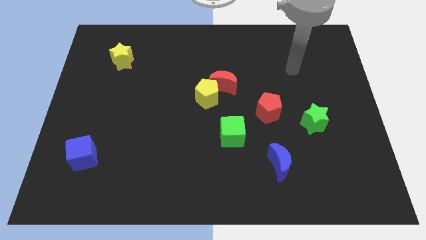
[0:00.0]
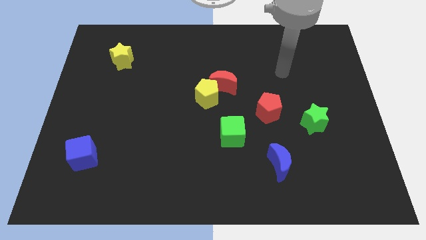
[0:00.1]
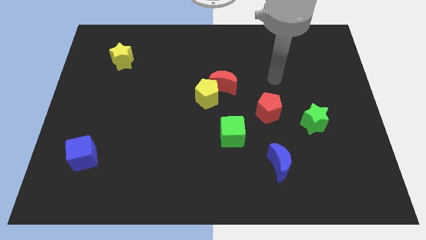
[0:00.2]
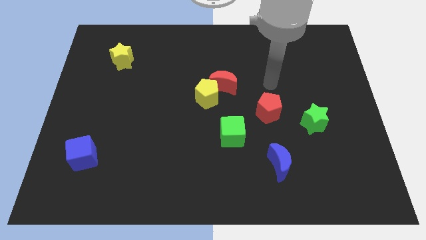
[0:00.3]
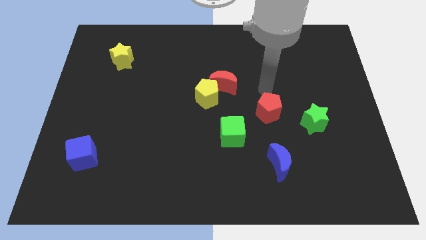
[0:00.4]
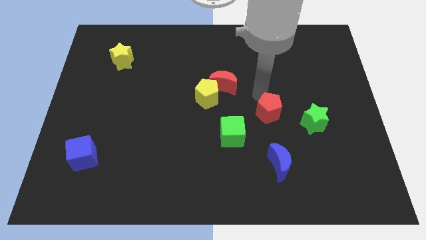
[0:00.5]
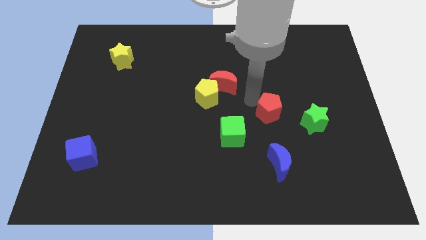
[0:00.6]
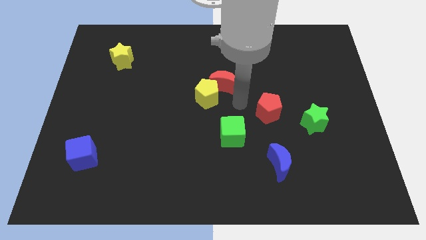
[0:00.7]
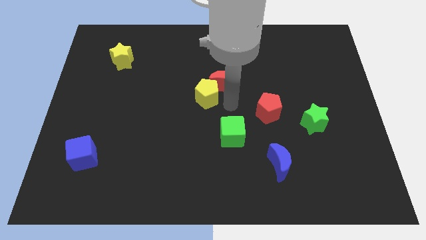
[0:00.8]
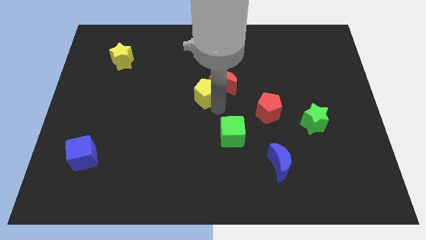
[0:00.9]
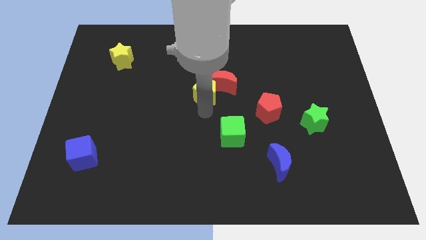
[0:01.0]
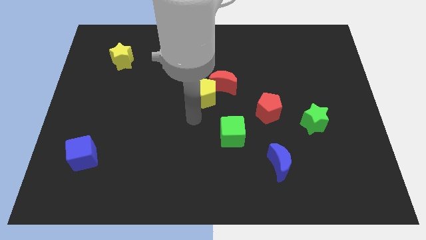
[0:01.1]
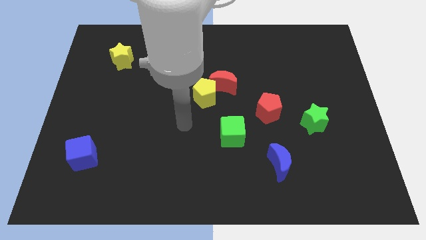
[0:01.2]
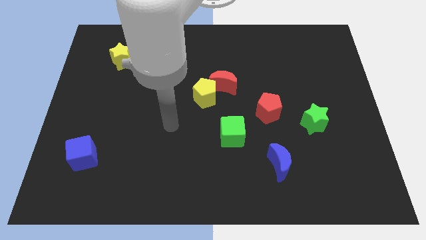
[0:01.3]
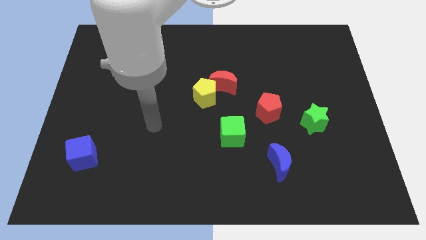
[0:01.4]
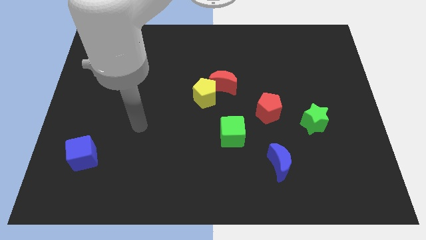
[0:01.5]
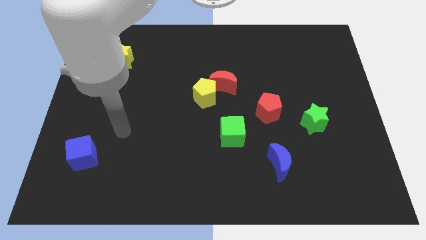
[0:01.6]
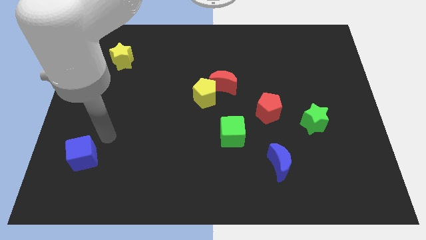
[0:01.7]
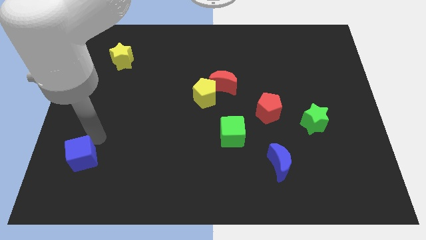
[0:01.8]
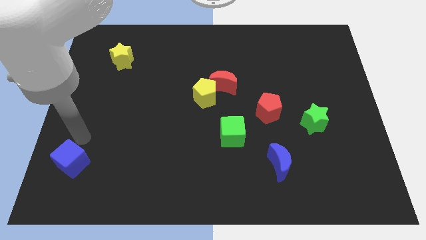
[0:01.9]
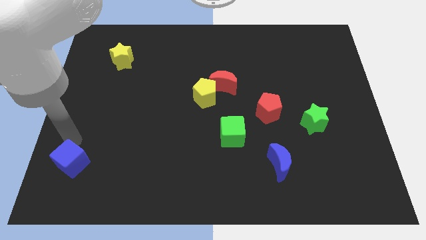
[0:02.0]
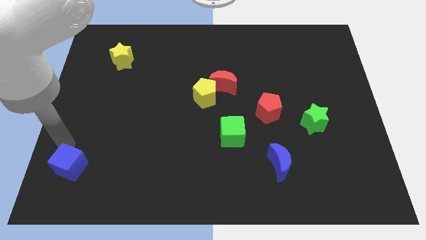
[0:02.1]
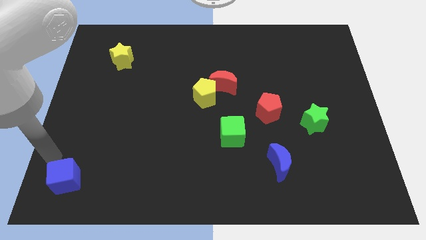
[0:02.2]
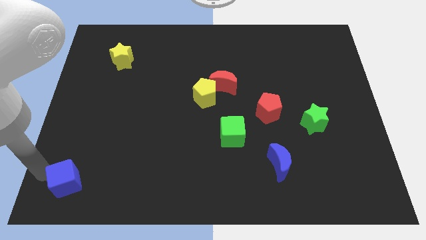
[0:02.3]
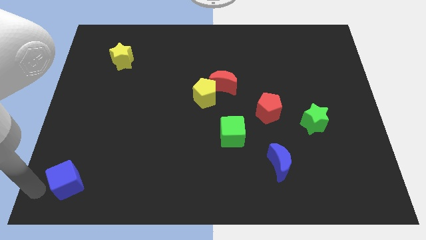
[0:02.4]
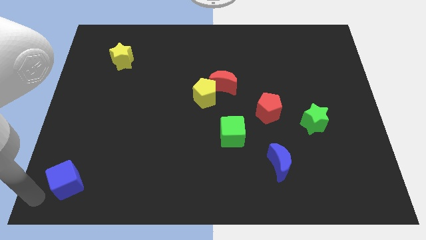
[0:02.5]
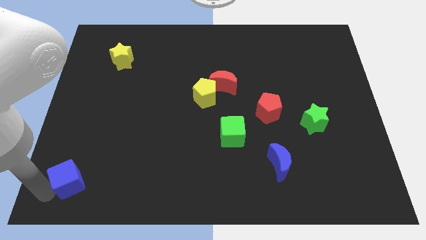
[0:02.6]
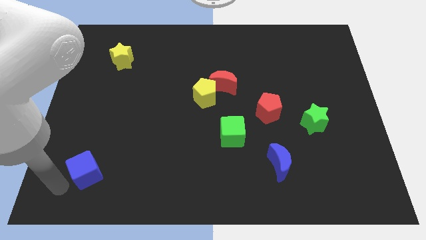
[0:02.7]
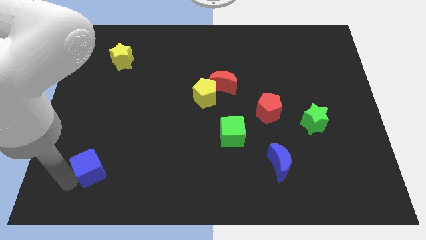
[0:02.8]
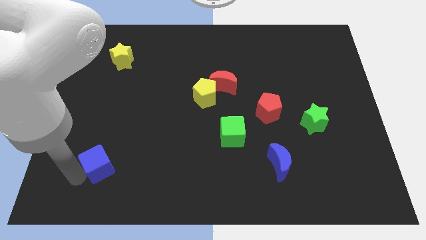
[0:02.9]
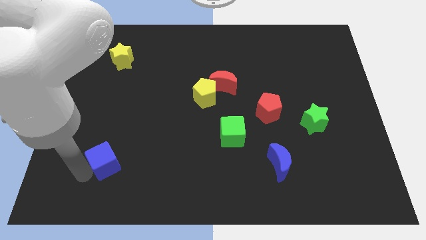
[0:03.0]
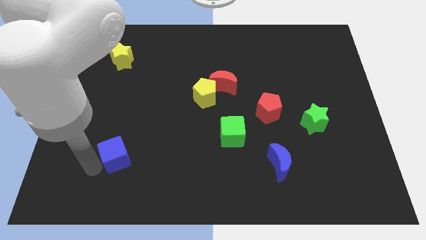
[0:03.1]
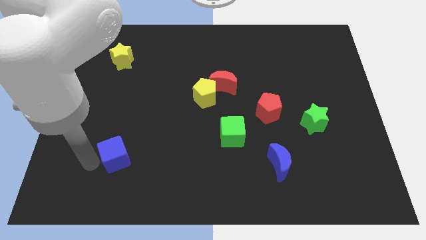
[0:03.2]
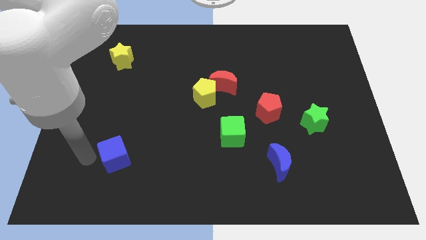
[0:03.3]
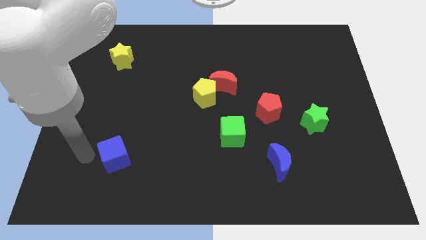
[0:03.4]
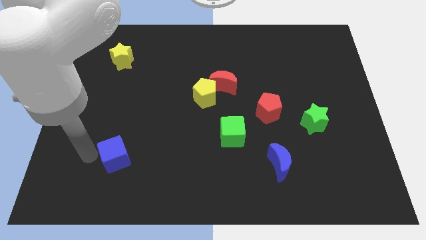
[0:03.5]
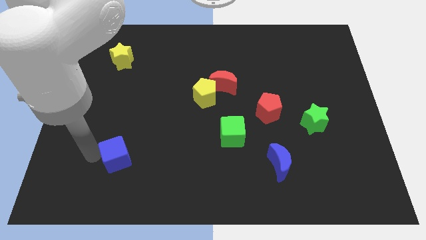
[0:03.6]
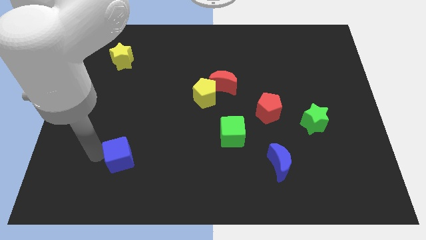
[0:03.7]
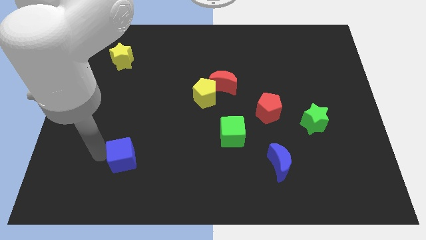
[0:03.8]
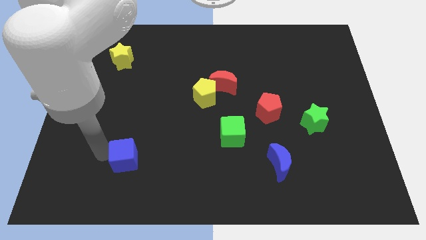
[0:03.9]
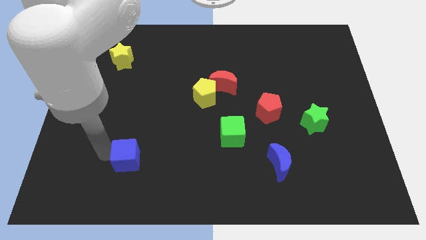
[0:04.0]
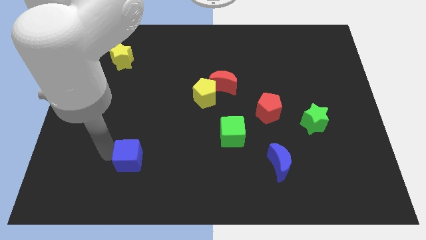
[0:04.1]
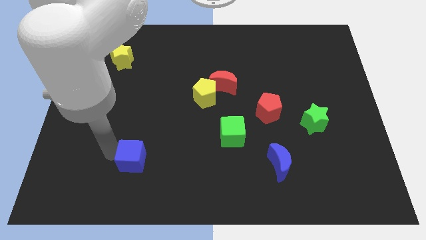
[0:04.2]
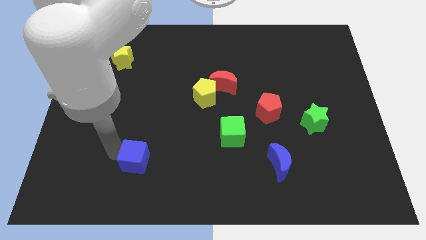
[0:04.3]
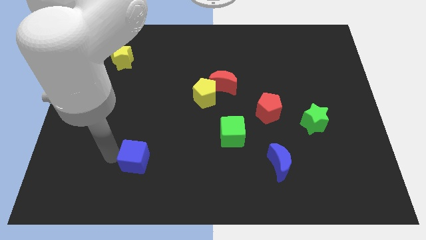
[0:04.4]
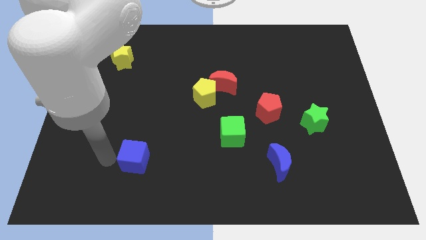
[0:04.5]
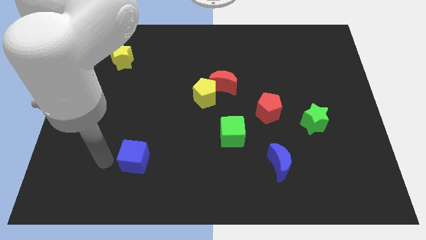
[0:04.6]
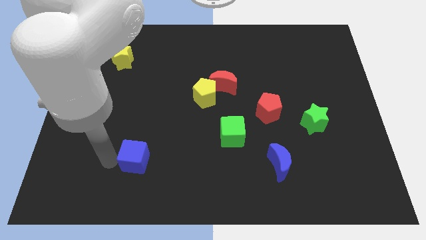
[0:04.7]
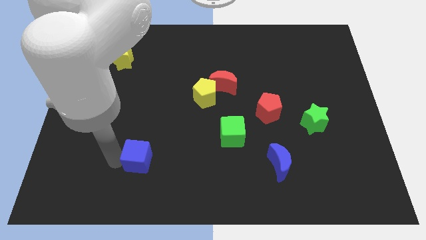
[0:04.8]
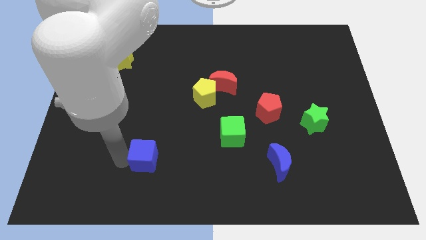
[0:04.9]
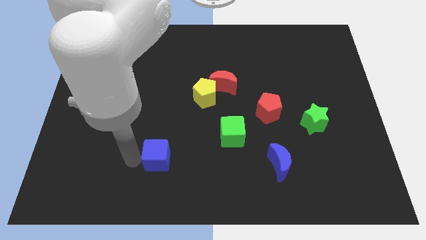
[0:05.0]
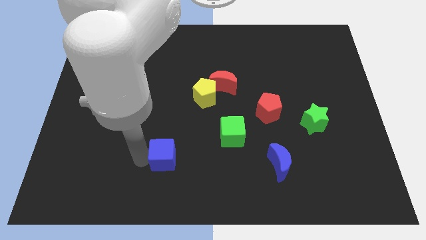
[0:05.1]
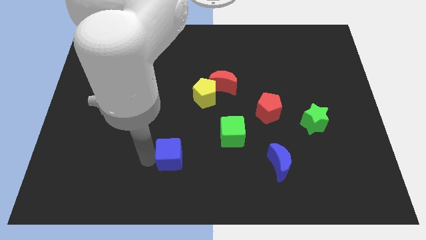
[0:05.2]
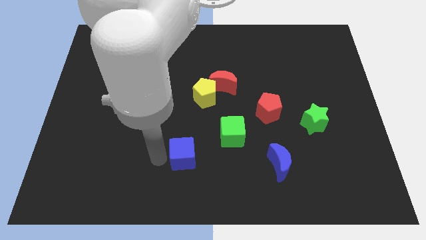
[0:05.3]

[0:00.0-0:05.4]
move the blue cube to the right

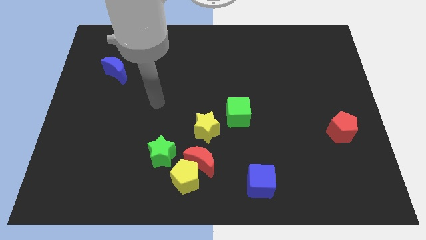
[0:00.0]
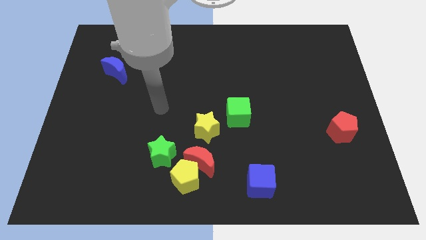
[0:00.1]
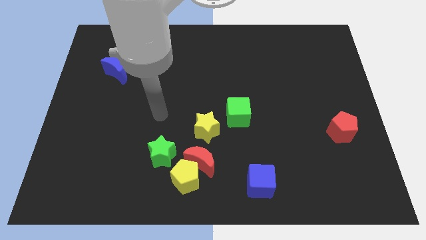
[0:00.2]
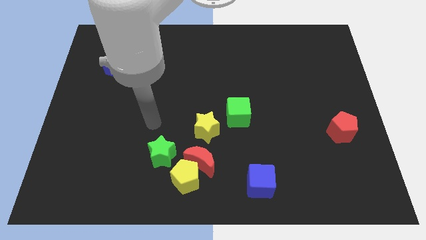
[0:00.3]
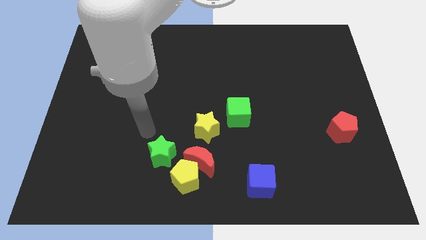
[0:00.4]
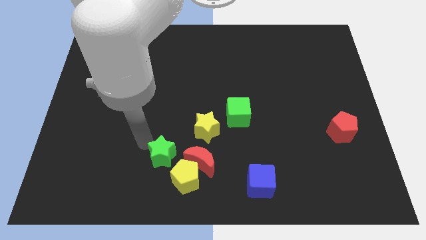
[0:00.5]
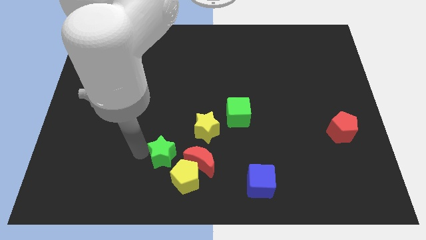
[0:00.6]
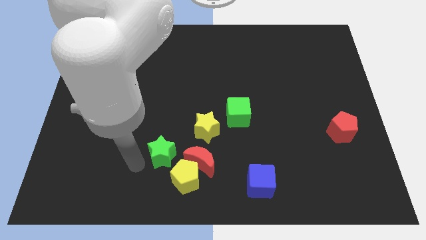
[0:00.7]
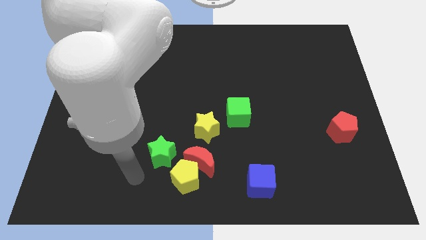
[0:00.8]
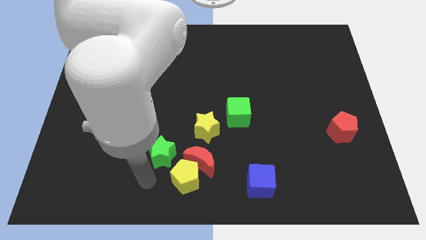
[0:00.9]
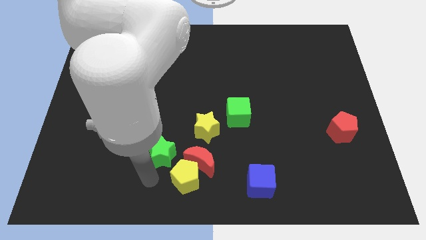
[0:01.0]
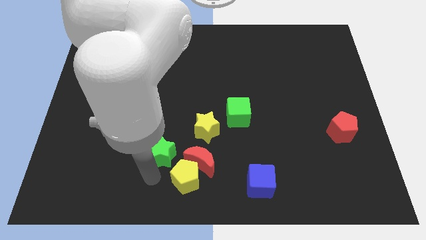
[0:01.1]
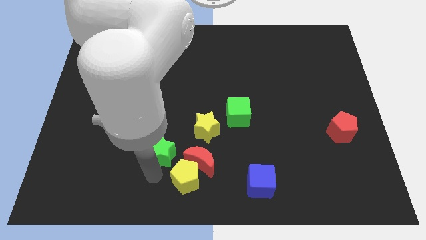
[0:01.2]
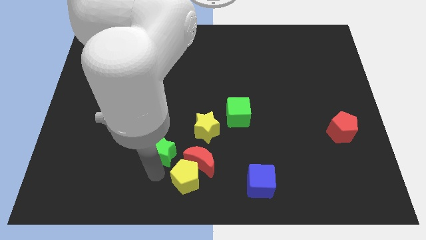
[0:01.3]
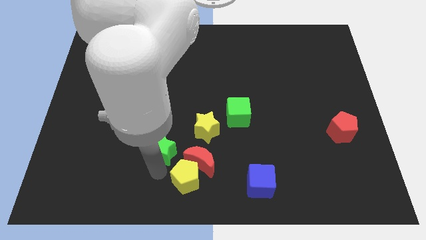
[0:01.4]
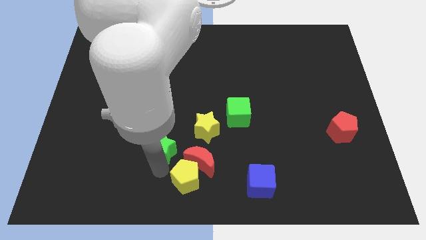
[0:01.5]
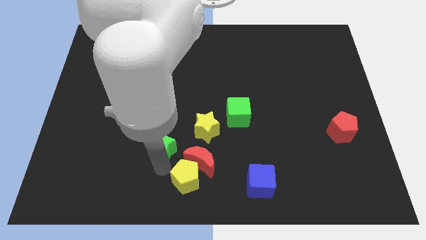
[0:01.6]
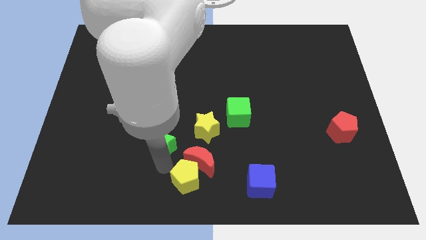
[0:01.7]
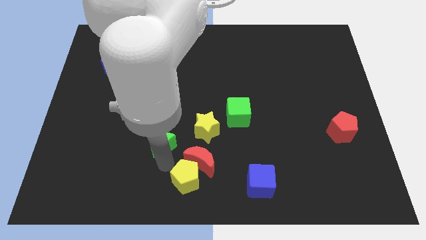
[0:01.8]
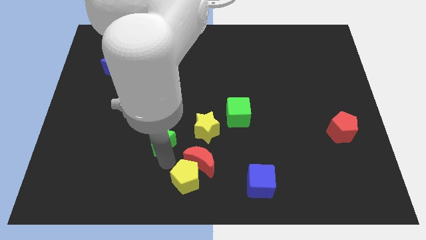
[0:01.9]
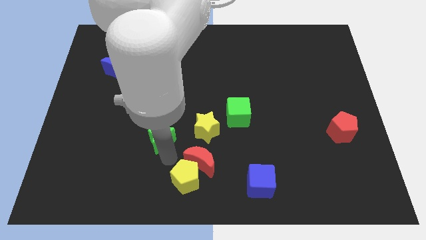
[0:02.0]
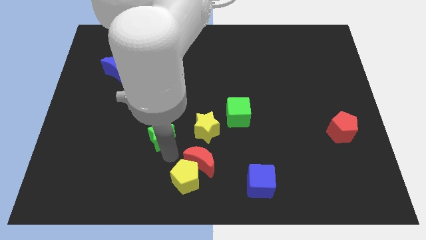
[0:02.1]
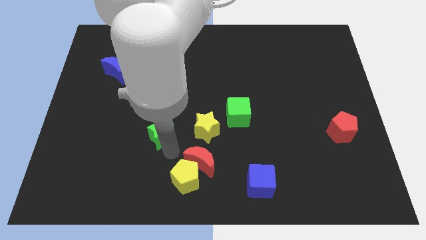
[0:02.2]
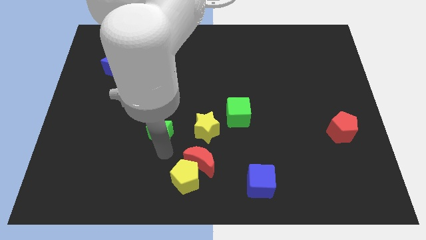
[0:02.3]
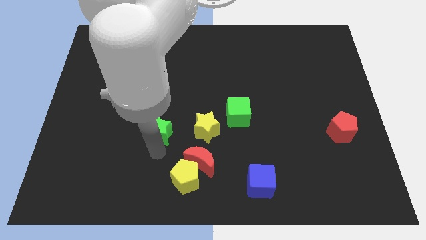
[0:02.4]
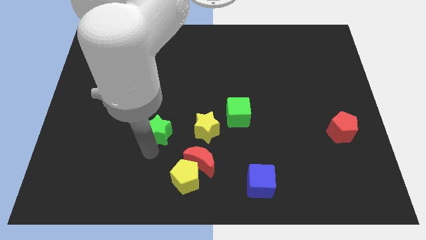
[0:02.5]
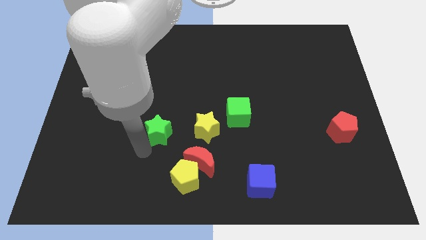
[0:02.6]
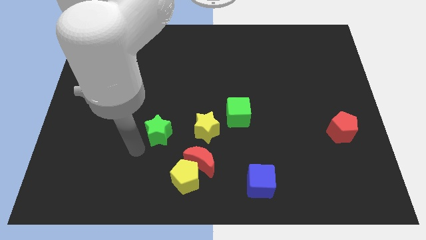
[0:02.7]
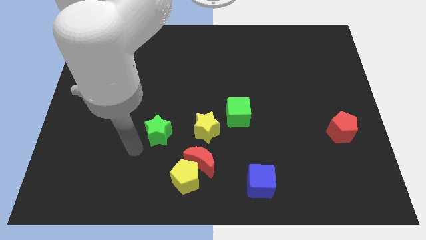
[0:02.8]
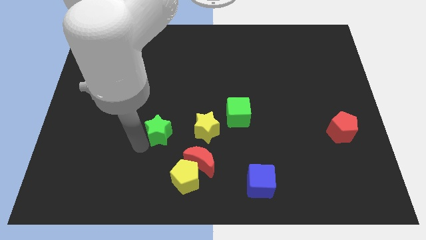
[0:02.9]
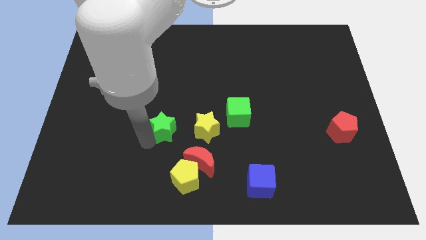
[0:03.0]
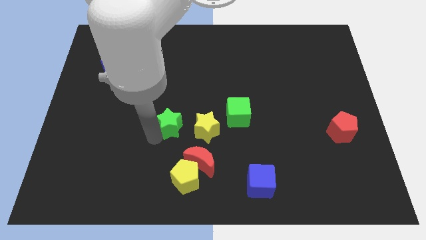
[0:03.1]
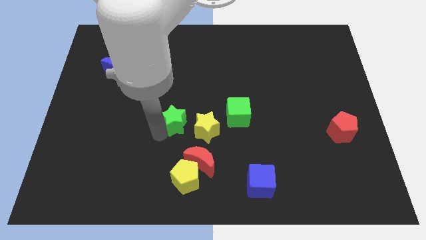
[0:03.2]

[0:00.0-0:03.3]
move the green star up and then to the right a bit
